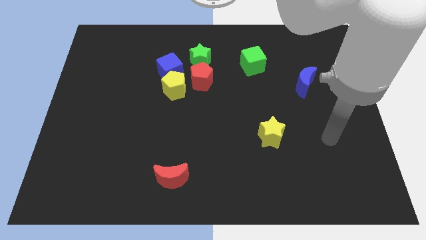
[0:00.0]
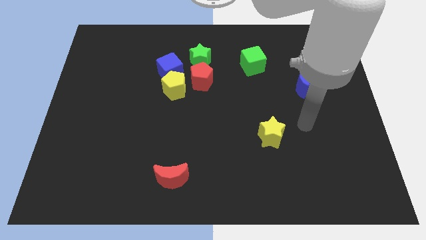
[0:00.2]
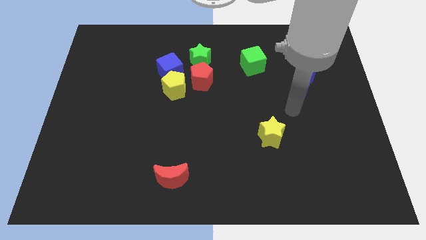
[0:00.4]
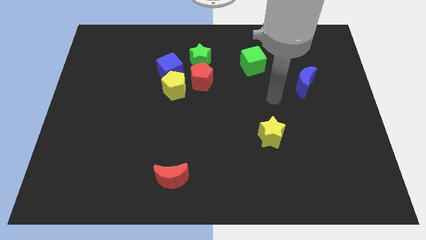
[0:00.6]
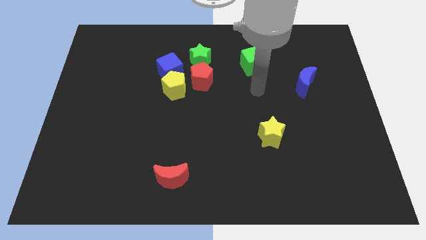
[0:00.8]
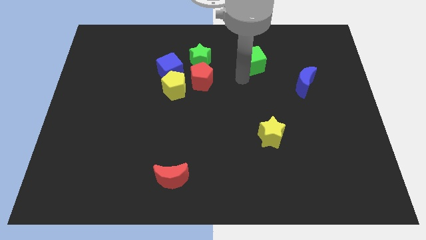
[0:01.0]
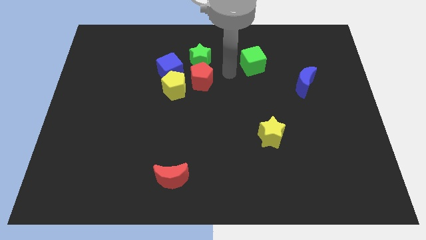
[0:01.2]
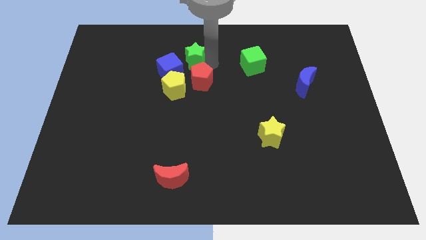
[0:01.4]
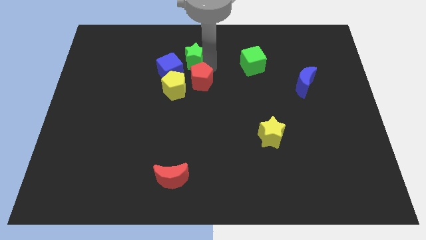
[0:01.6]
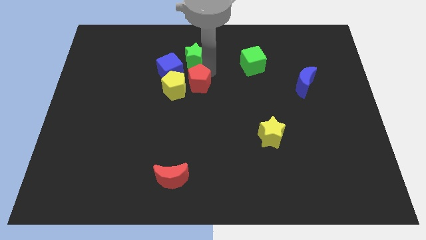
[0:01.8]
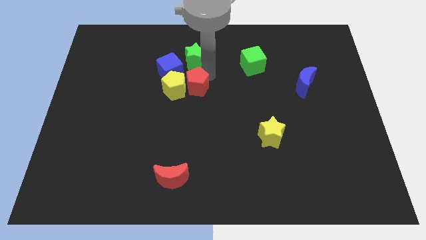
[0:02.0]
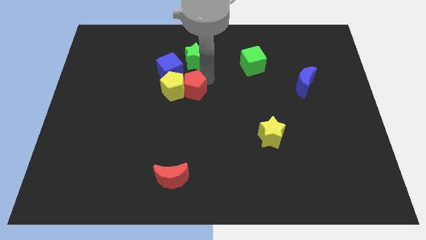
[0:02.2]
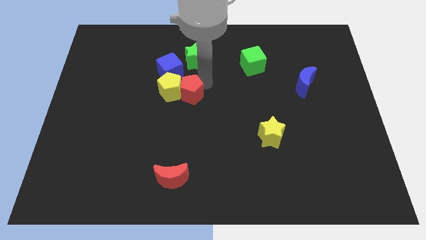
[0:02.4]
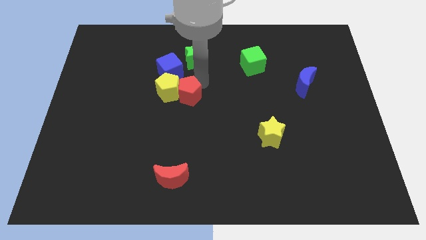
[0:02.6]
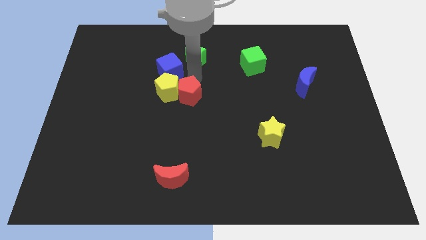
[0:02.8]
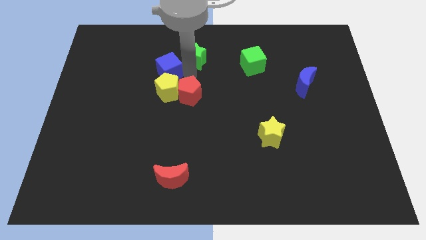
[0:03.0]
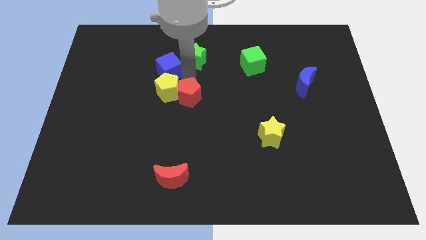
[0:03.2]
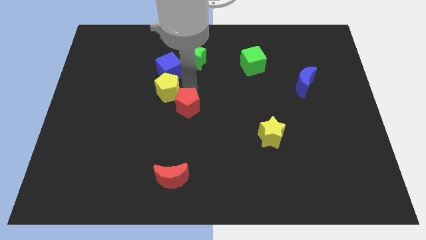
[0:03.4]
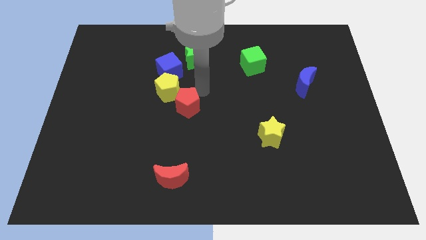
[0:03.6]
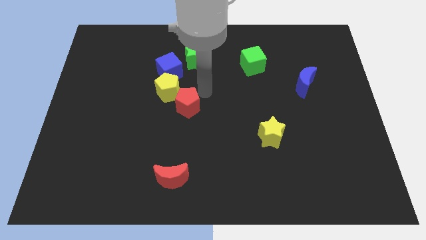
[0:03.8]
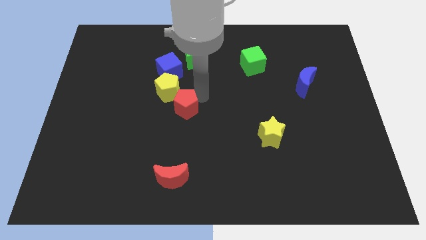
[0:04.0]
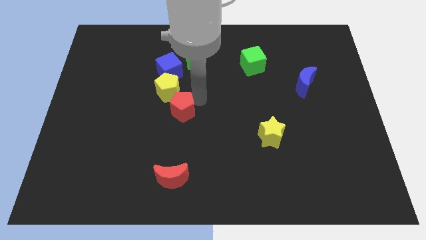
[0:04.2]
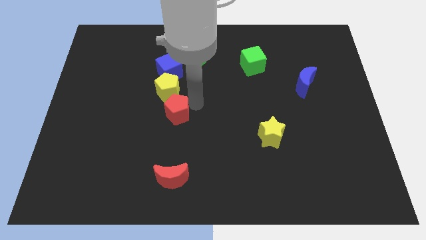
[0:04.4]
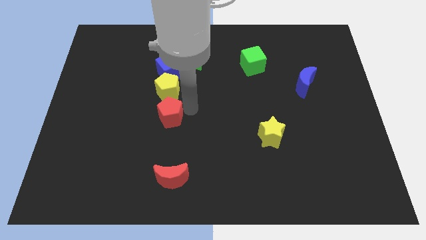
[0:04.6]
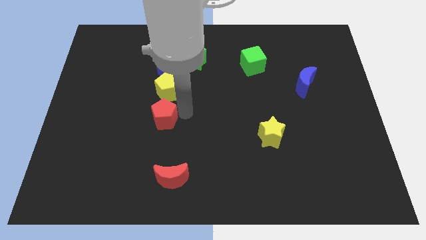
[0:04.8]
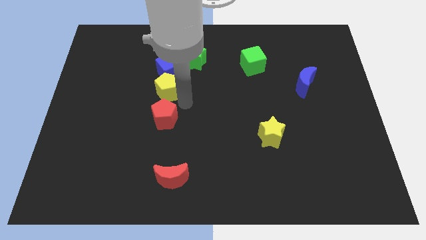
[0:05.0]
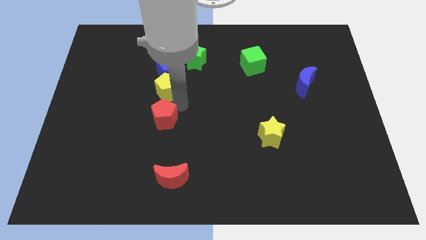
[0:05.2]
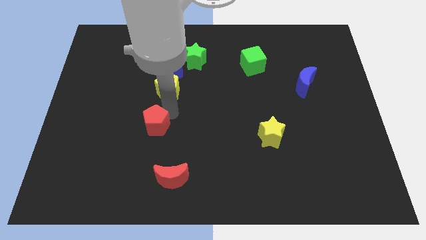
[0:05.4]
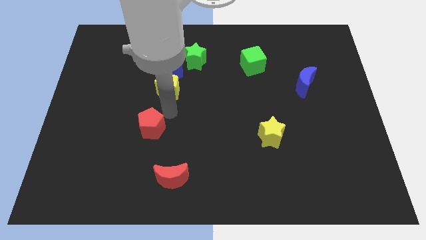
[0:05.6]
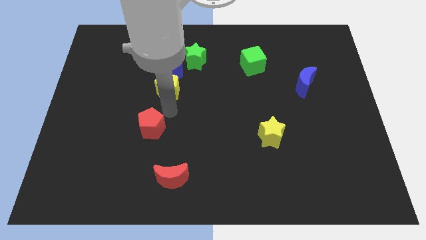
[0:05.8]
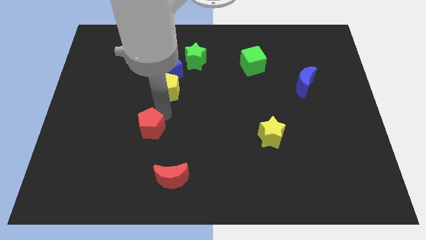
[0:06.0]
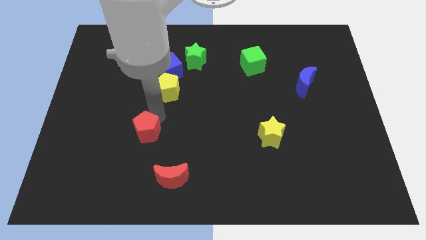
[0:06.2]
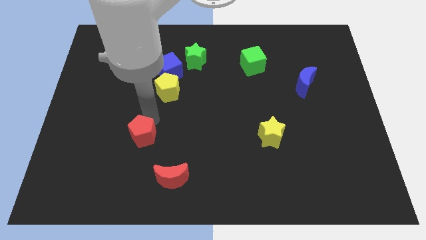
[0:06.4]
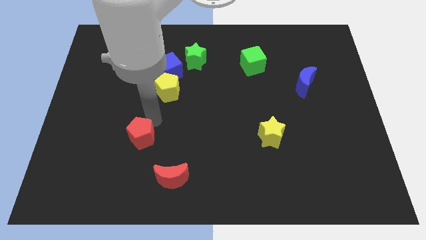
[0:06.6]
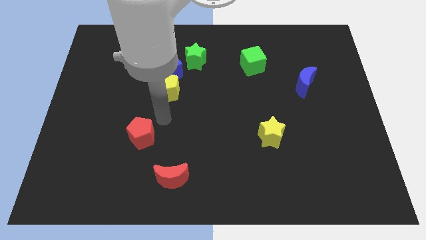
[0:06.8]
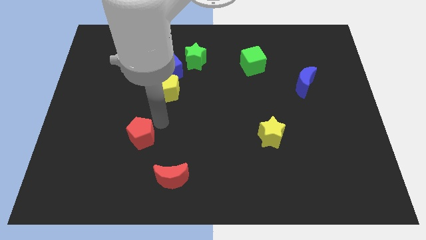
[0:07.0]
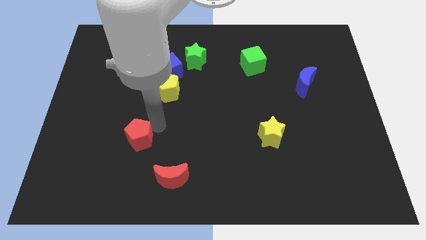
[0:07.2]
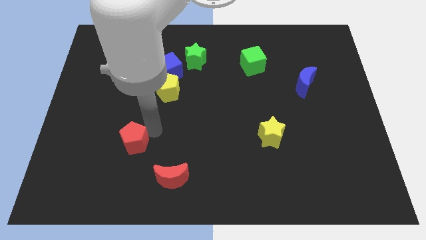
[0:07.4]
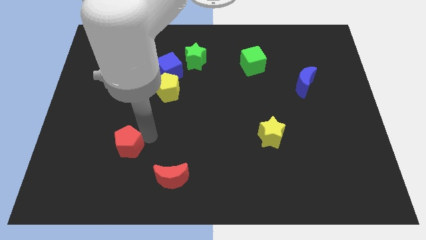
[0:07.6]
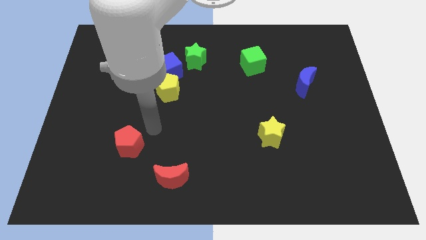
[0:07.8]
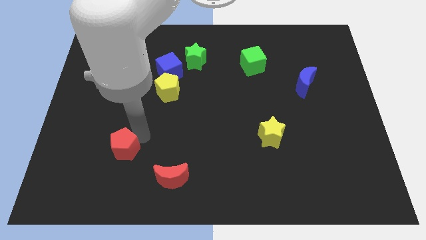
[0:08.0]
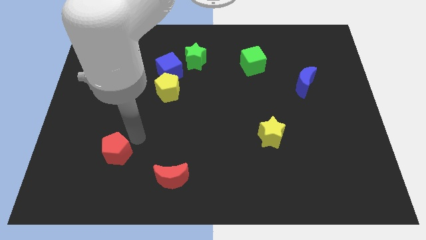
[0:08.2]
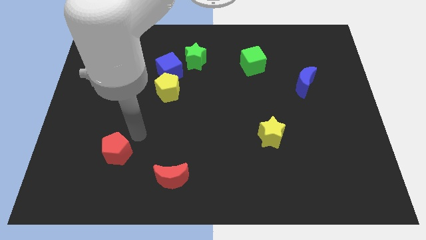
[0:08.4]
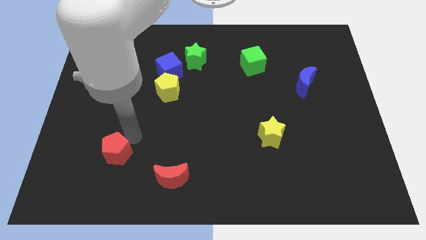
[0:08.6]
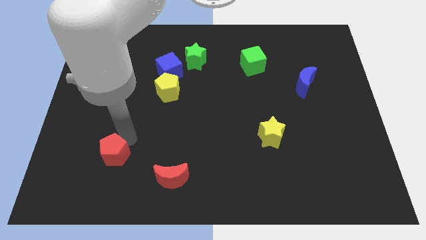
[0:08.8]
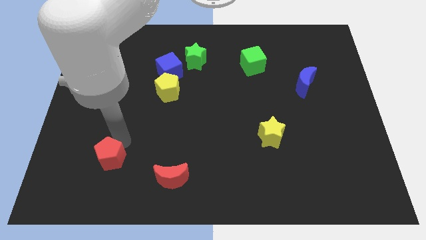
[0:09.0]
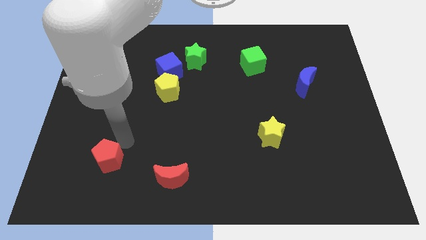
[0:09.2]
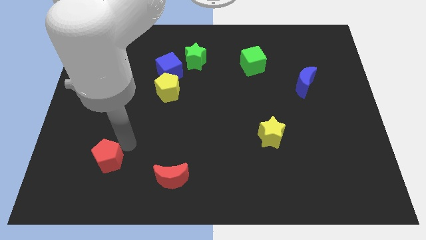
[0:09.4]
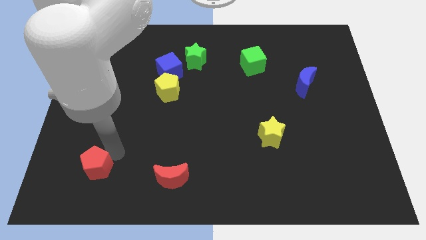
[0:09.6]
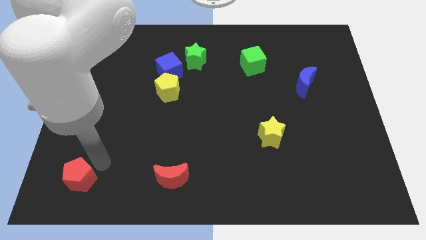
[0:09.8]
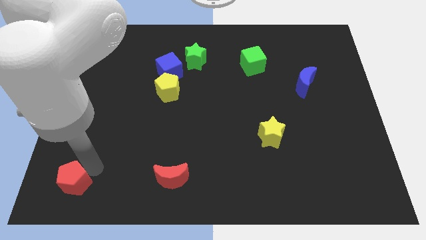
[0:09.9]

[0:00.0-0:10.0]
put the red pentagon to the lower left corner

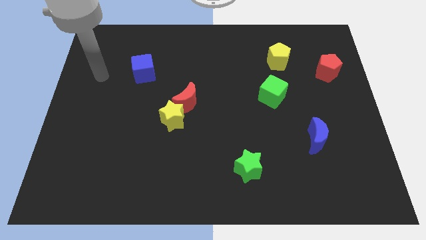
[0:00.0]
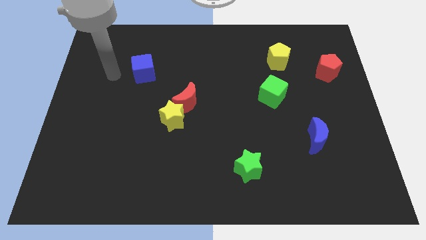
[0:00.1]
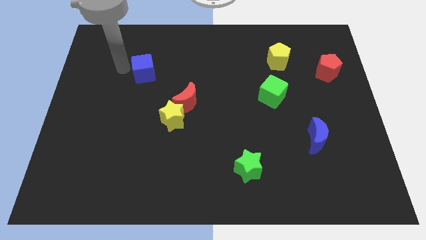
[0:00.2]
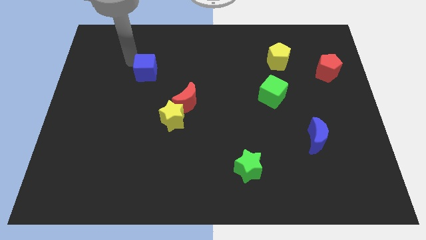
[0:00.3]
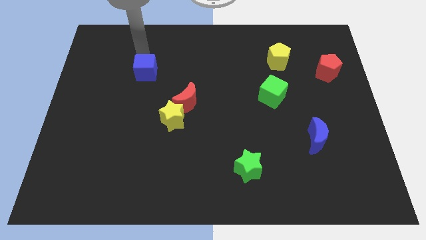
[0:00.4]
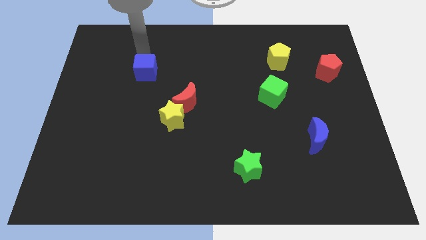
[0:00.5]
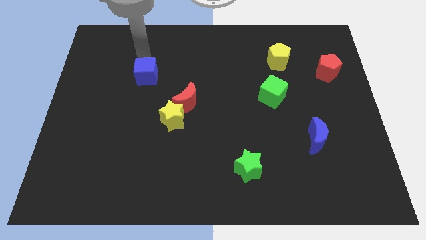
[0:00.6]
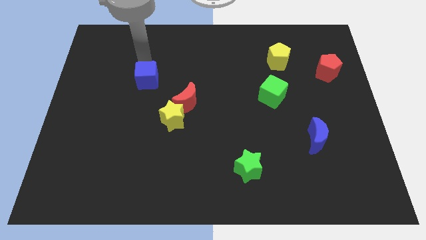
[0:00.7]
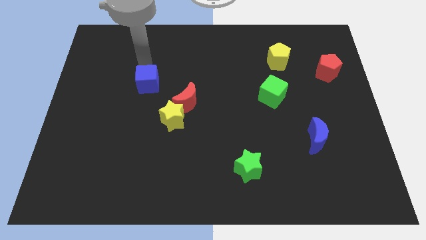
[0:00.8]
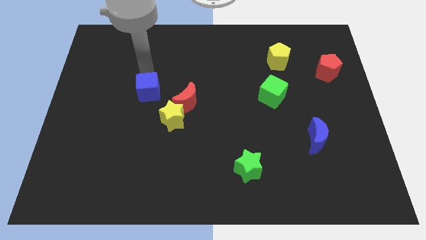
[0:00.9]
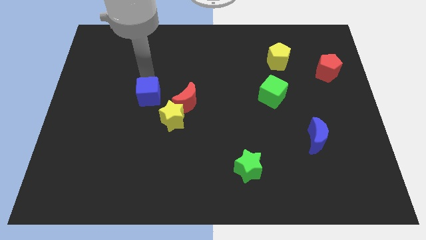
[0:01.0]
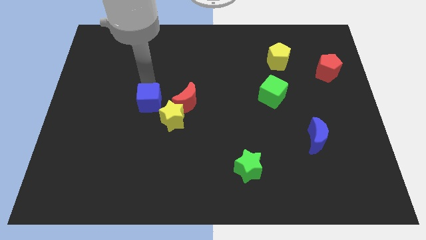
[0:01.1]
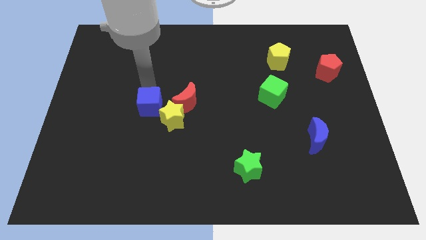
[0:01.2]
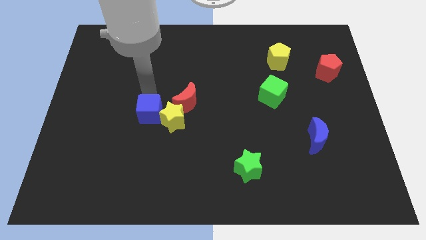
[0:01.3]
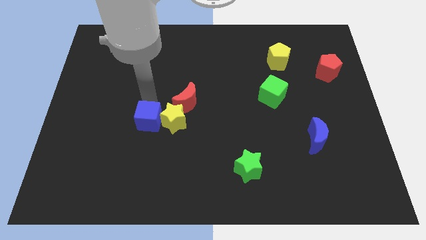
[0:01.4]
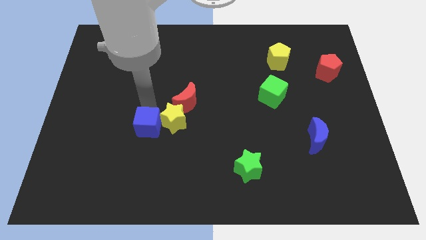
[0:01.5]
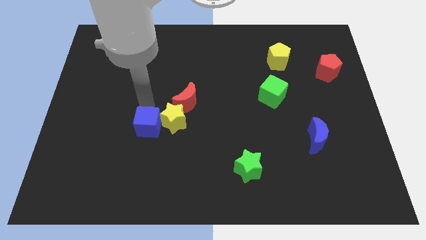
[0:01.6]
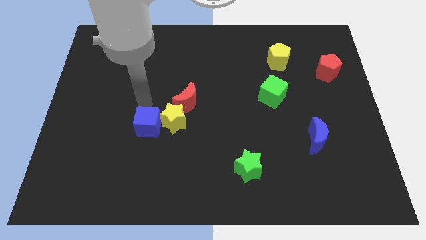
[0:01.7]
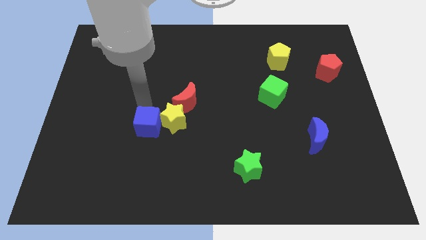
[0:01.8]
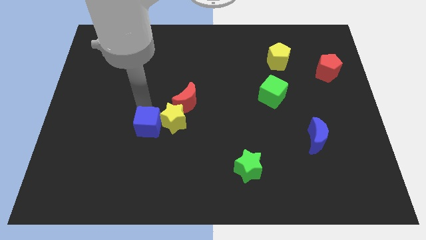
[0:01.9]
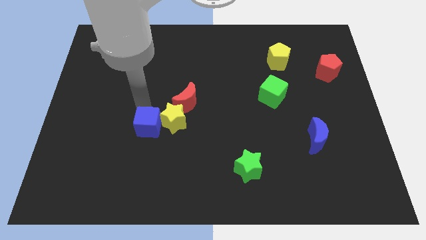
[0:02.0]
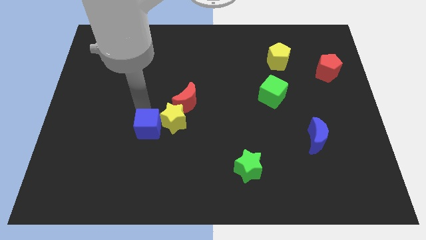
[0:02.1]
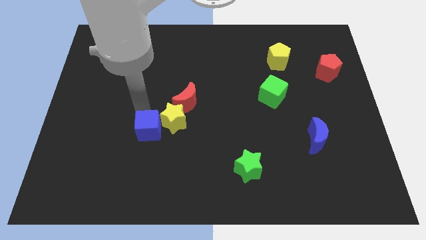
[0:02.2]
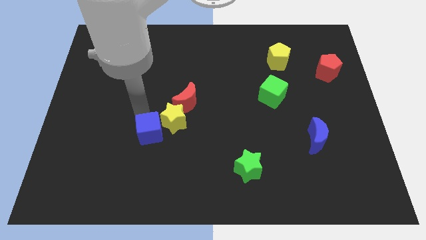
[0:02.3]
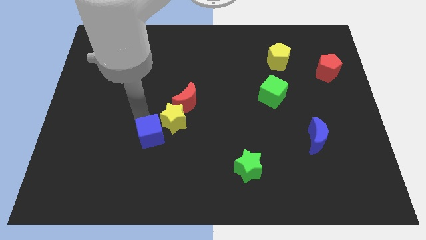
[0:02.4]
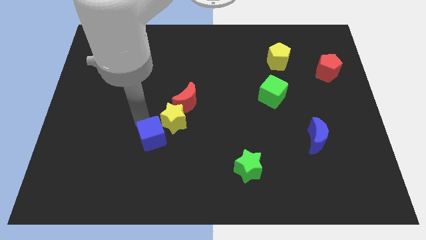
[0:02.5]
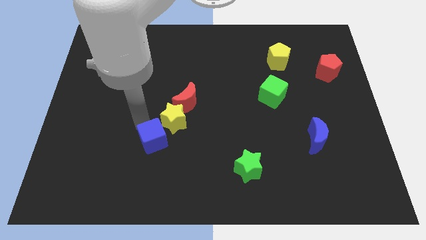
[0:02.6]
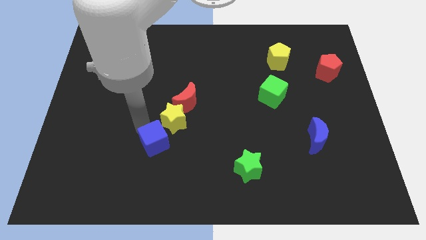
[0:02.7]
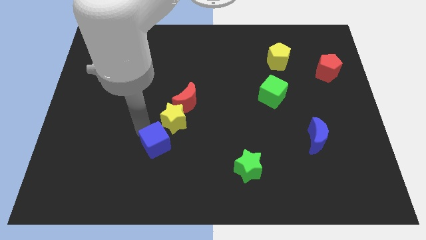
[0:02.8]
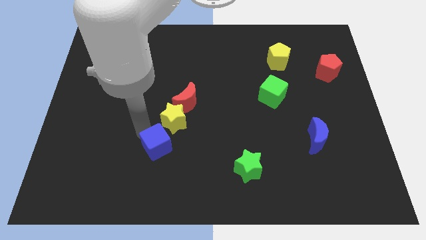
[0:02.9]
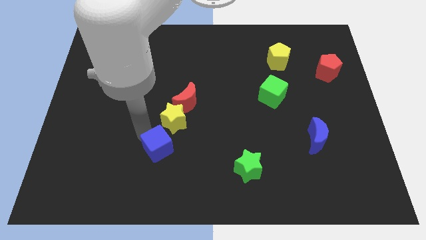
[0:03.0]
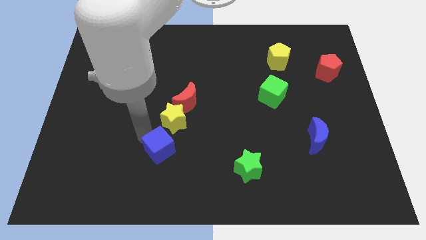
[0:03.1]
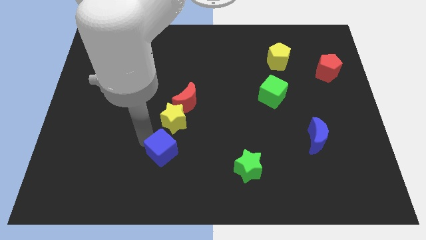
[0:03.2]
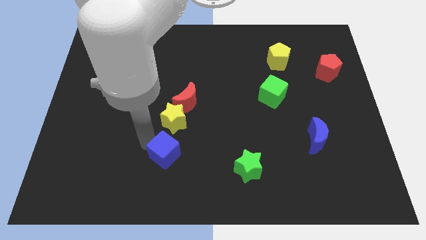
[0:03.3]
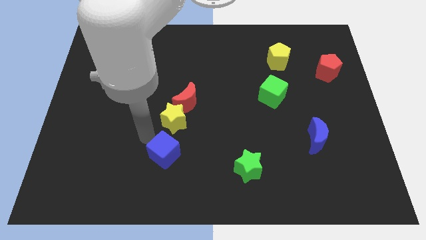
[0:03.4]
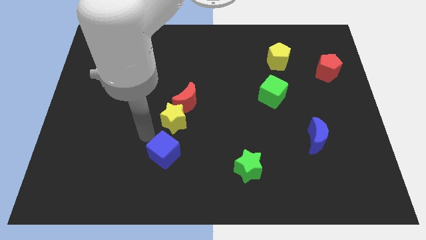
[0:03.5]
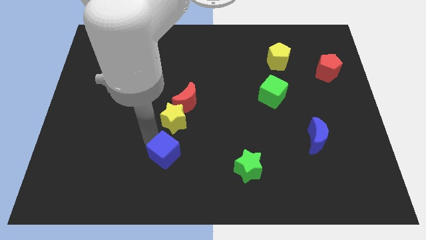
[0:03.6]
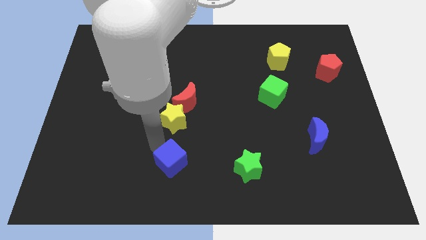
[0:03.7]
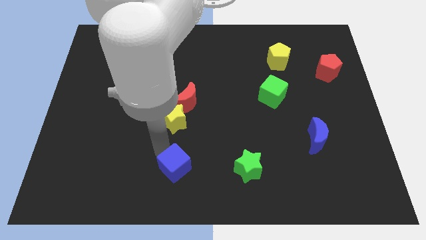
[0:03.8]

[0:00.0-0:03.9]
slide the blue cube to the bottom side
